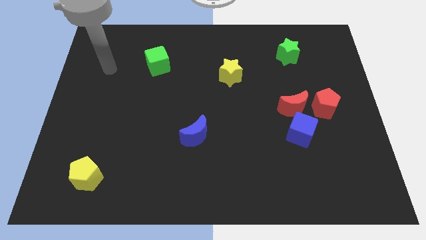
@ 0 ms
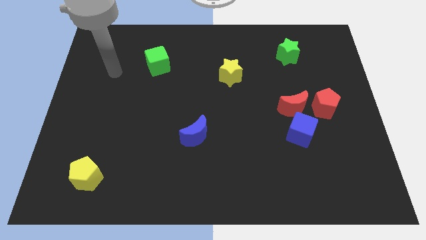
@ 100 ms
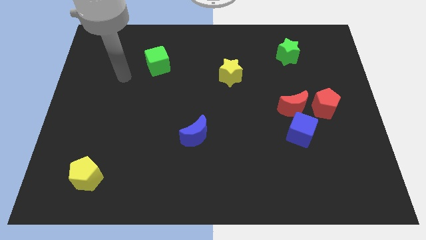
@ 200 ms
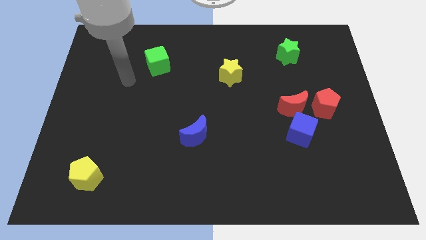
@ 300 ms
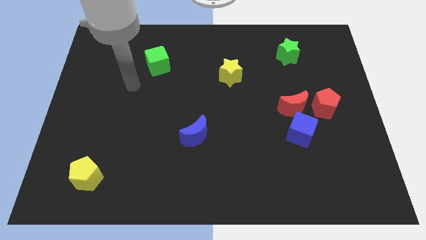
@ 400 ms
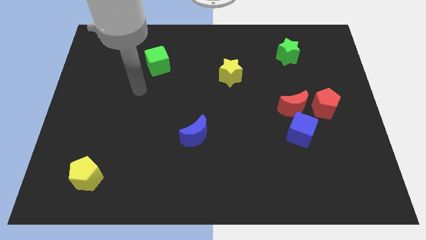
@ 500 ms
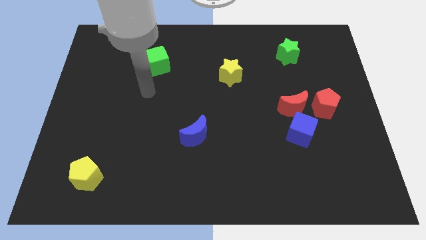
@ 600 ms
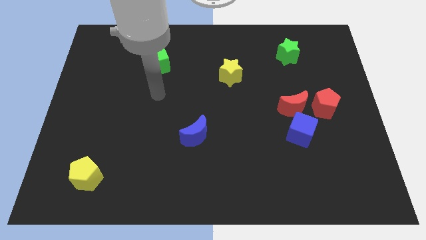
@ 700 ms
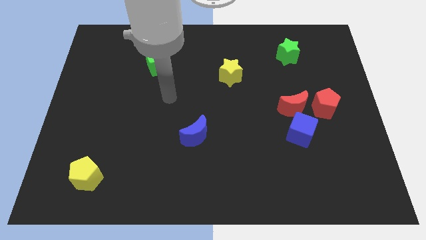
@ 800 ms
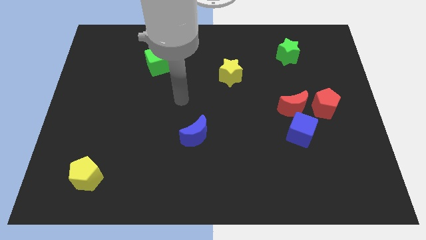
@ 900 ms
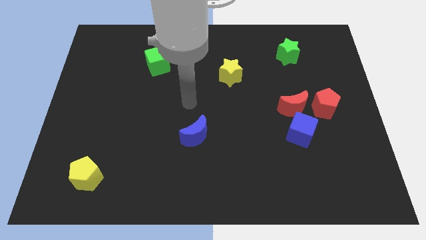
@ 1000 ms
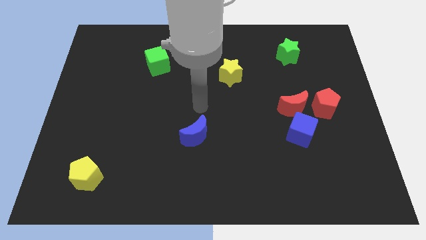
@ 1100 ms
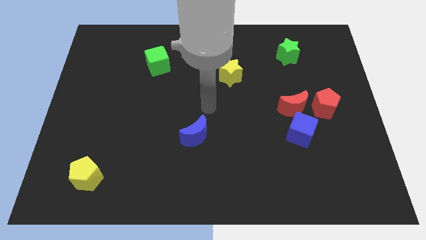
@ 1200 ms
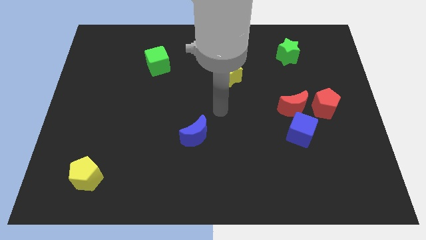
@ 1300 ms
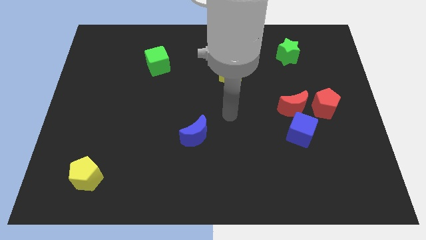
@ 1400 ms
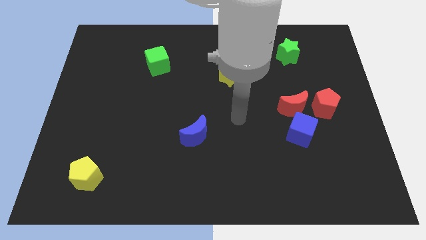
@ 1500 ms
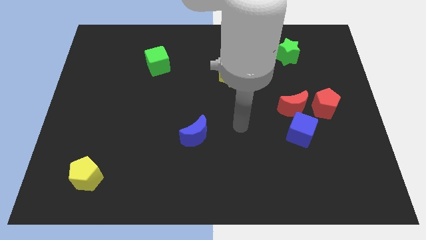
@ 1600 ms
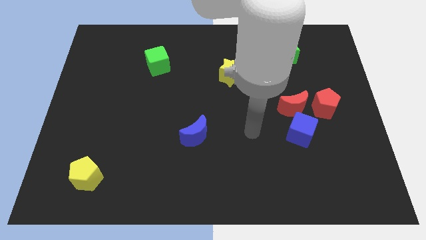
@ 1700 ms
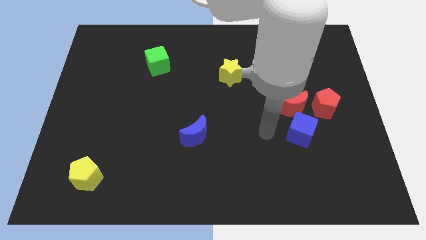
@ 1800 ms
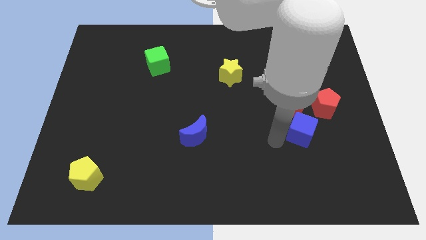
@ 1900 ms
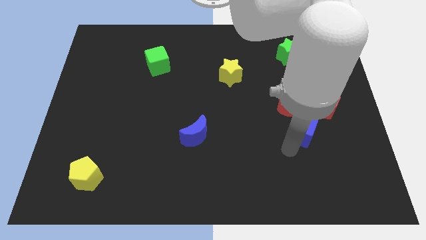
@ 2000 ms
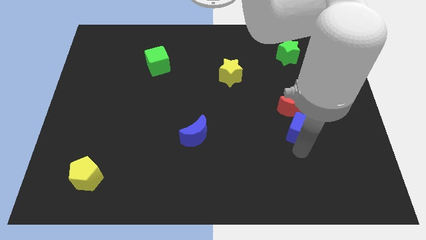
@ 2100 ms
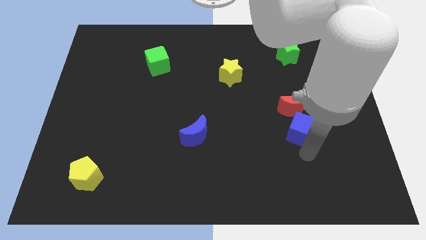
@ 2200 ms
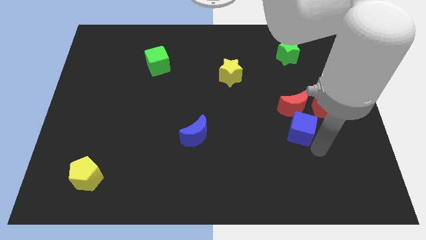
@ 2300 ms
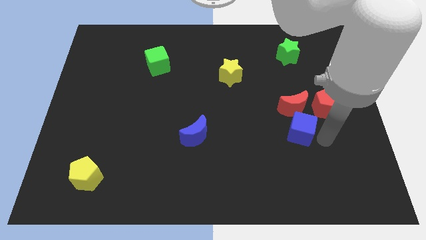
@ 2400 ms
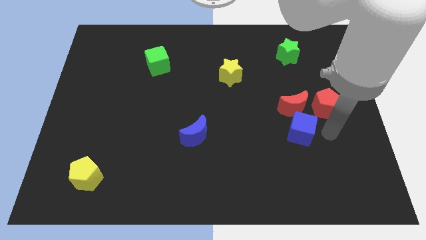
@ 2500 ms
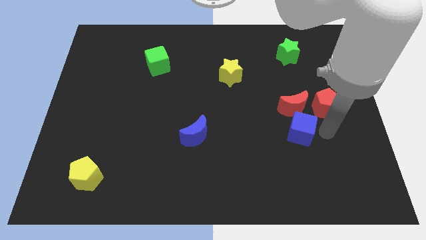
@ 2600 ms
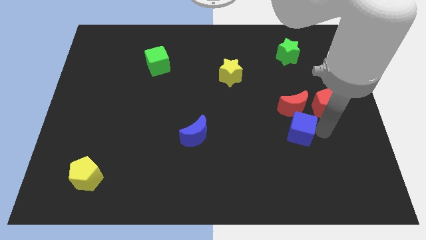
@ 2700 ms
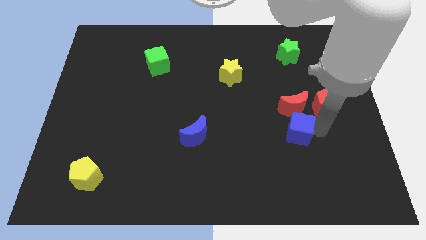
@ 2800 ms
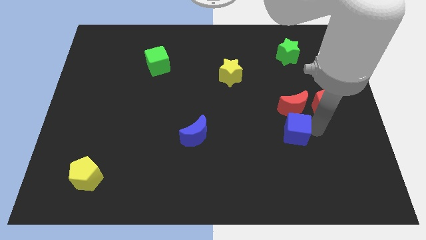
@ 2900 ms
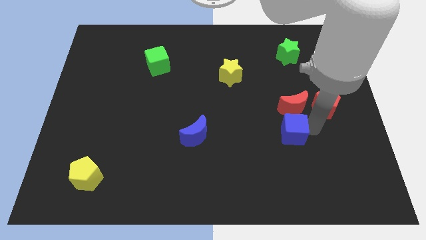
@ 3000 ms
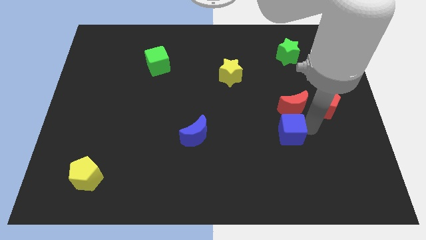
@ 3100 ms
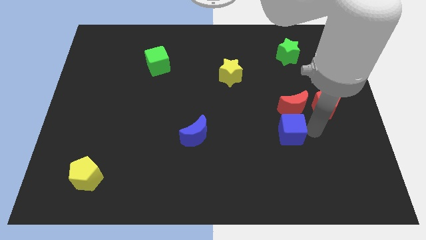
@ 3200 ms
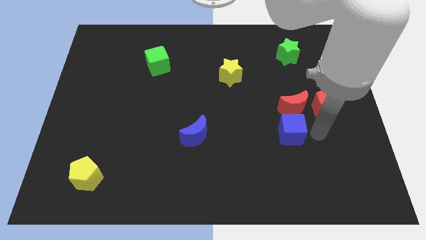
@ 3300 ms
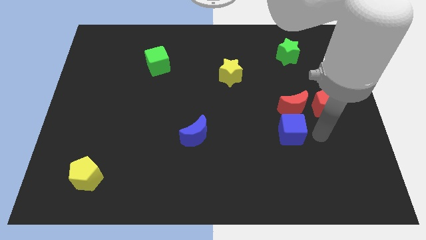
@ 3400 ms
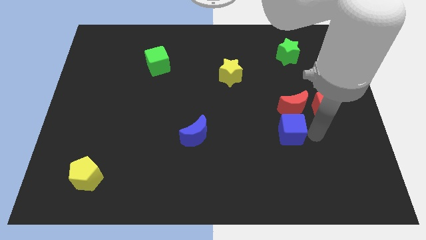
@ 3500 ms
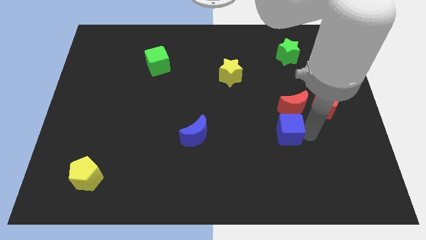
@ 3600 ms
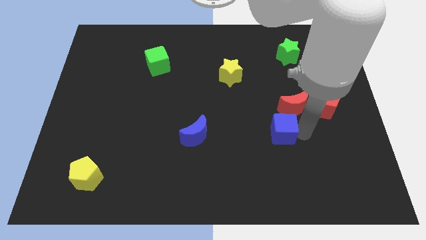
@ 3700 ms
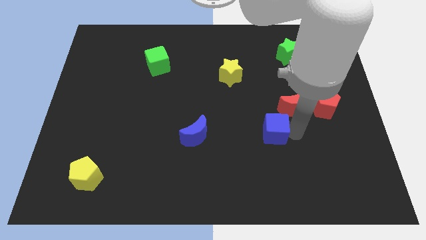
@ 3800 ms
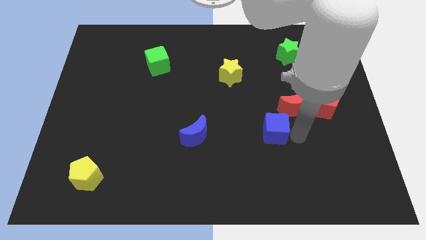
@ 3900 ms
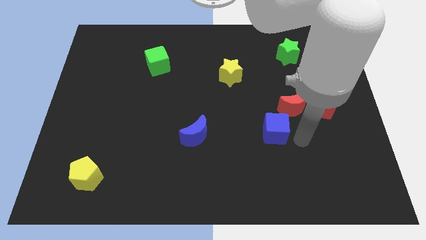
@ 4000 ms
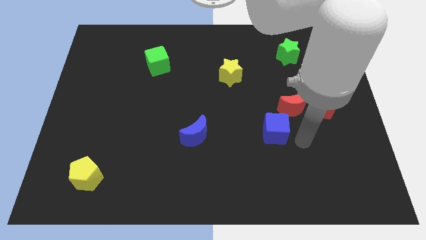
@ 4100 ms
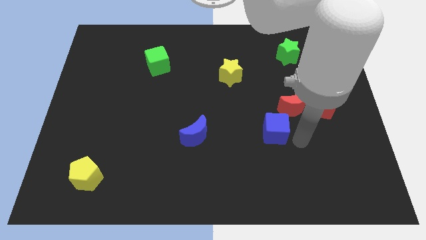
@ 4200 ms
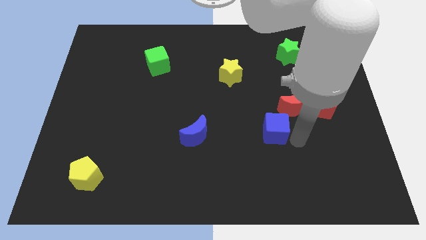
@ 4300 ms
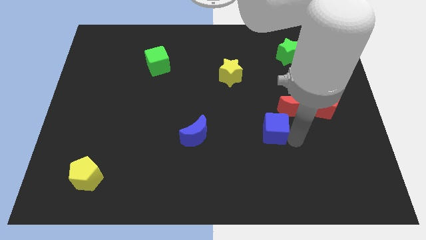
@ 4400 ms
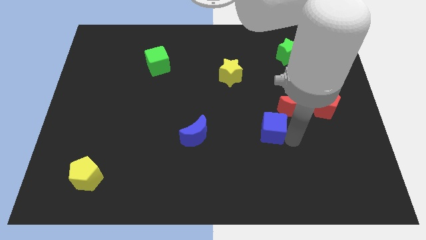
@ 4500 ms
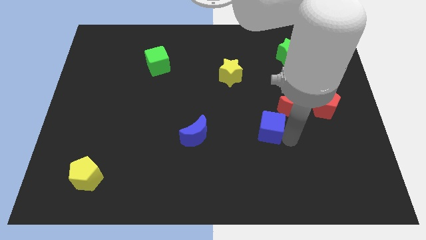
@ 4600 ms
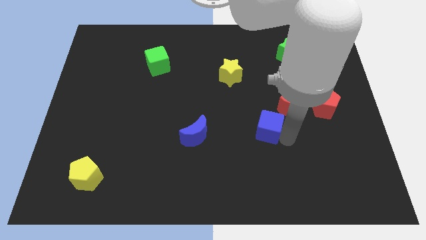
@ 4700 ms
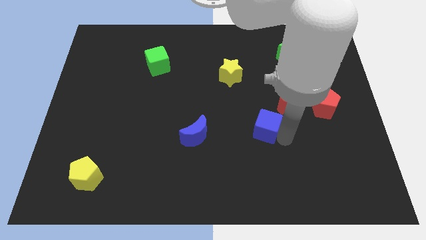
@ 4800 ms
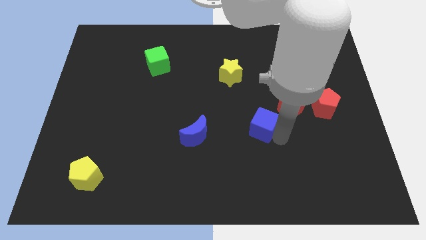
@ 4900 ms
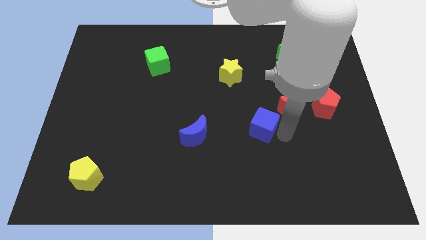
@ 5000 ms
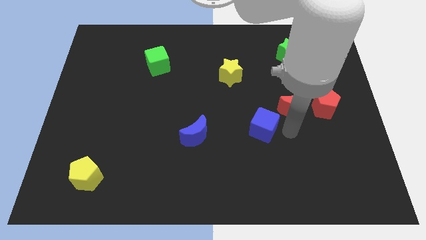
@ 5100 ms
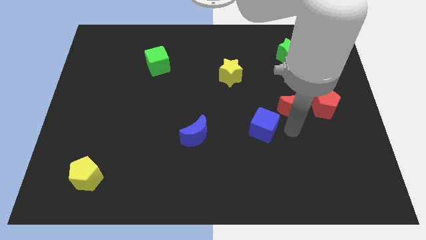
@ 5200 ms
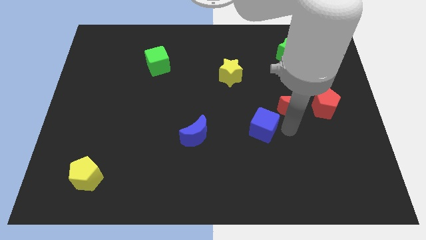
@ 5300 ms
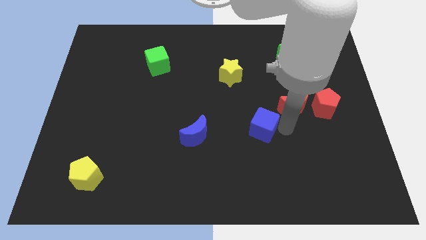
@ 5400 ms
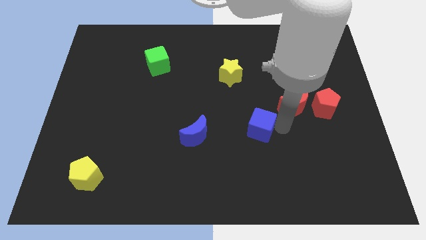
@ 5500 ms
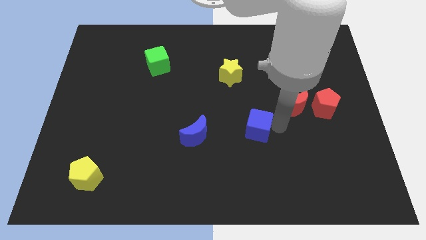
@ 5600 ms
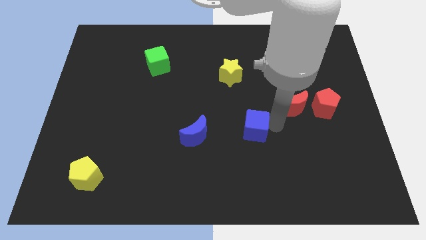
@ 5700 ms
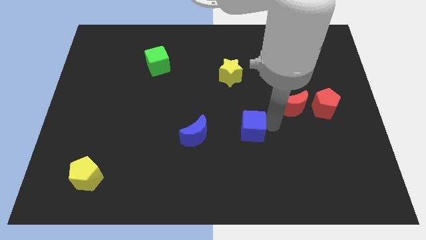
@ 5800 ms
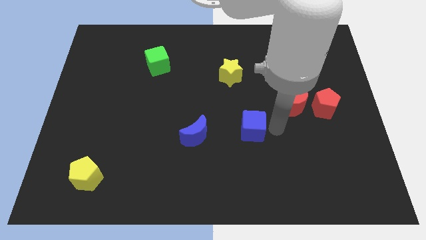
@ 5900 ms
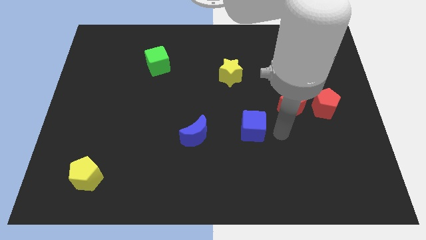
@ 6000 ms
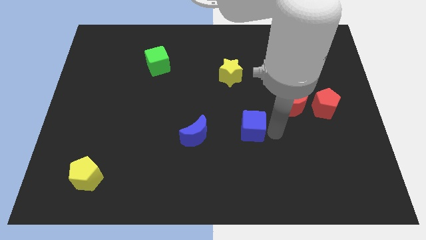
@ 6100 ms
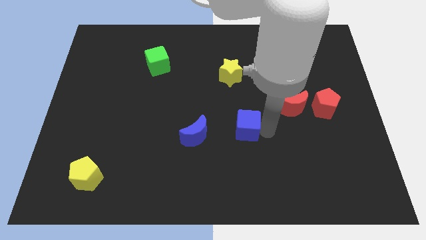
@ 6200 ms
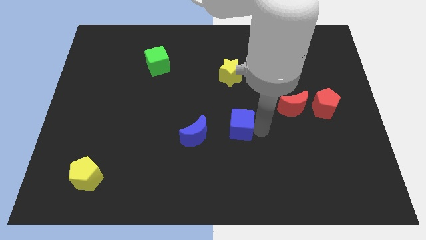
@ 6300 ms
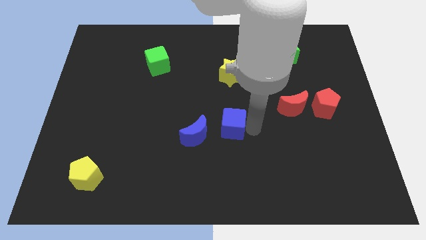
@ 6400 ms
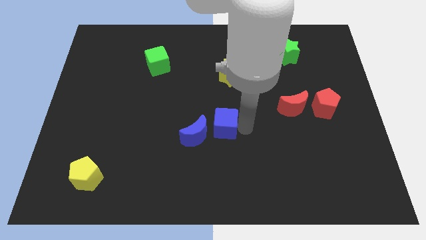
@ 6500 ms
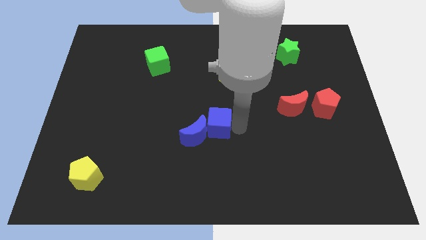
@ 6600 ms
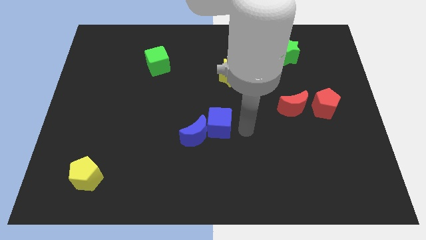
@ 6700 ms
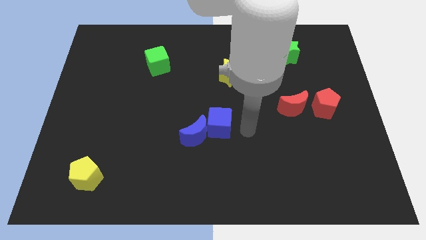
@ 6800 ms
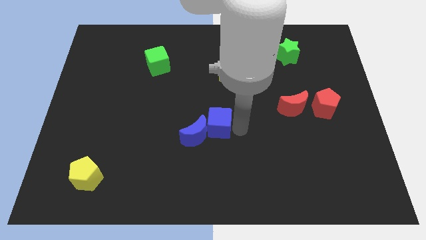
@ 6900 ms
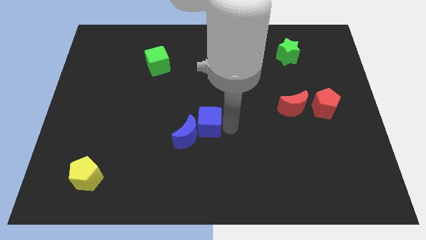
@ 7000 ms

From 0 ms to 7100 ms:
slide the blue cube left

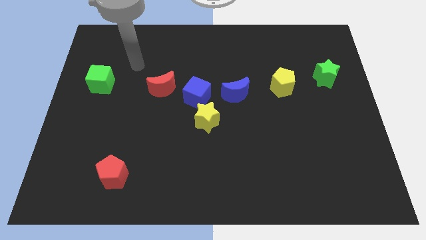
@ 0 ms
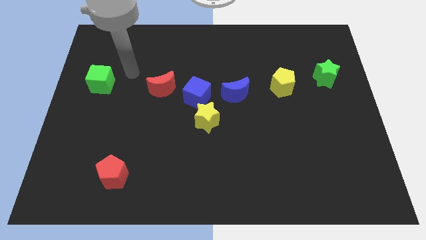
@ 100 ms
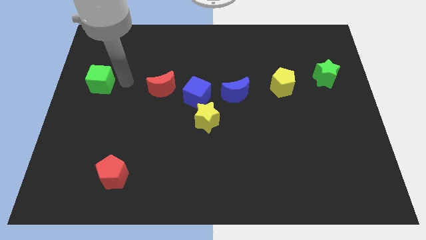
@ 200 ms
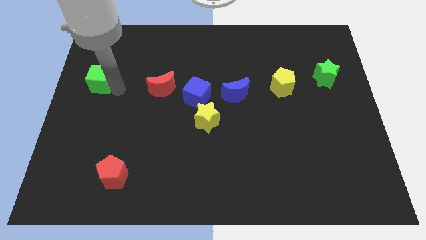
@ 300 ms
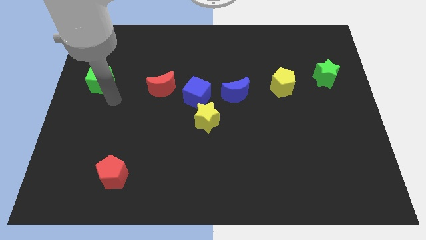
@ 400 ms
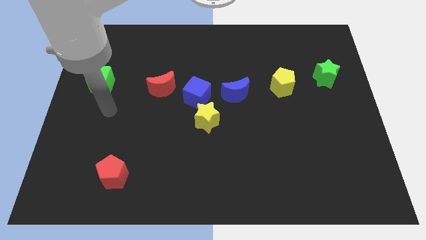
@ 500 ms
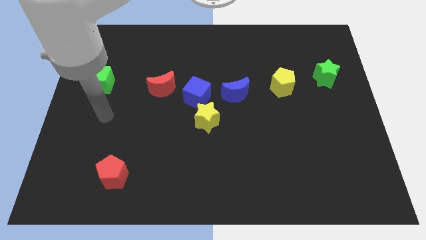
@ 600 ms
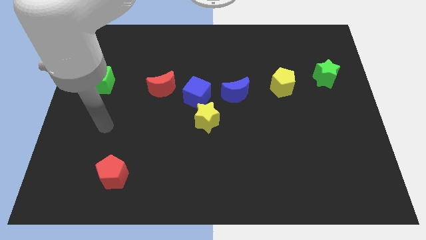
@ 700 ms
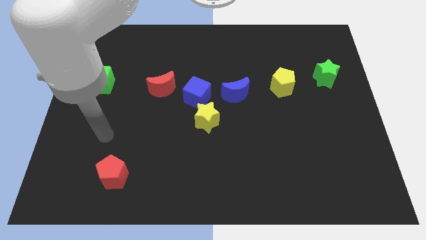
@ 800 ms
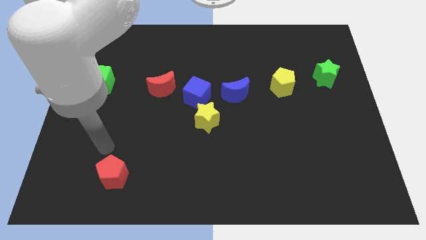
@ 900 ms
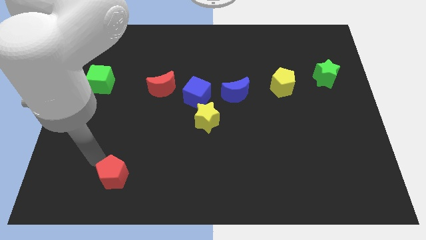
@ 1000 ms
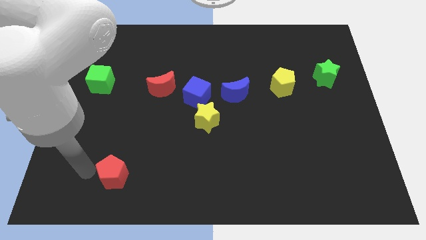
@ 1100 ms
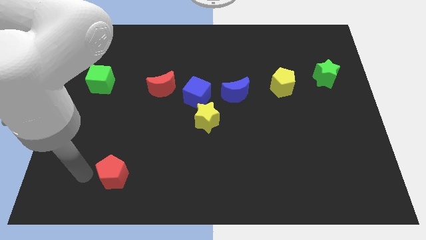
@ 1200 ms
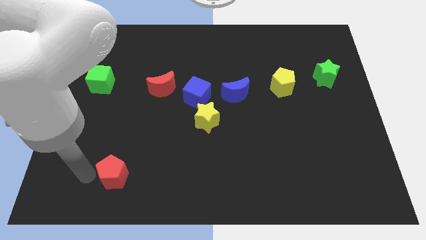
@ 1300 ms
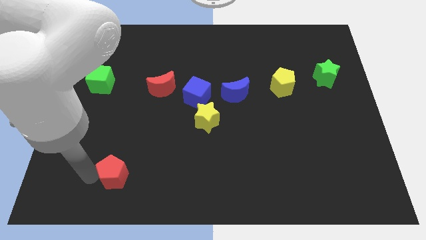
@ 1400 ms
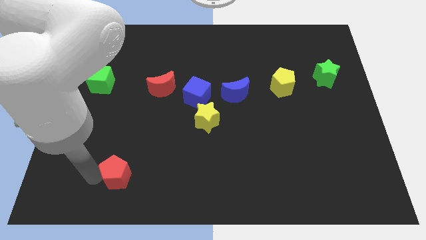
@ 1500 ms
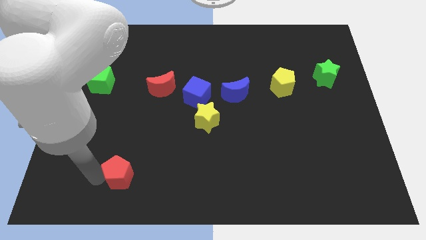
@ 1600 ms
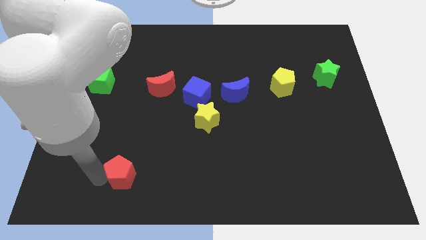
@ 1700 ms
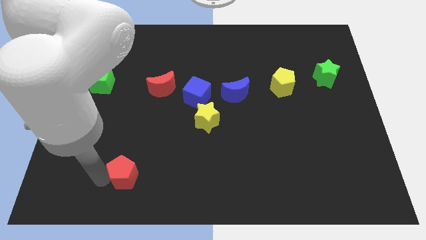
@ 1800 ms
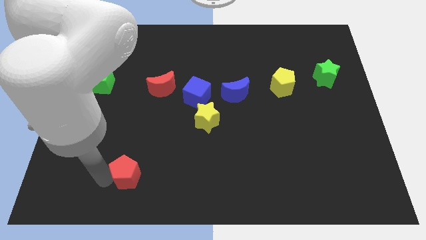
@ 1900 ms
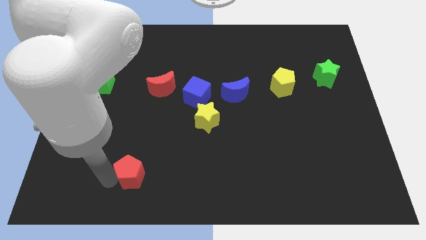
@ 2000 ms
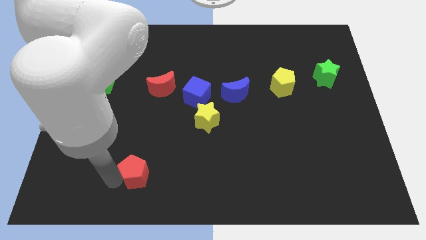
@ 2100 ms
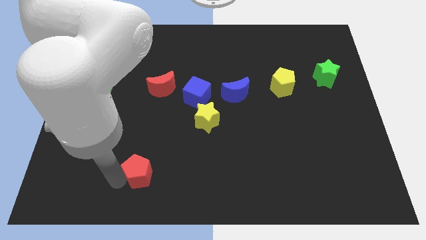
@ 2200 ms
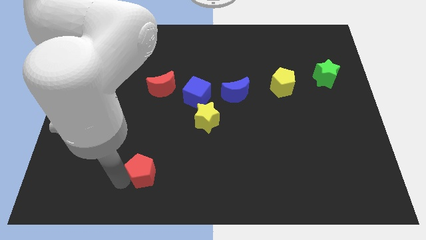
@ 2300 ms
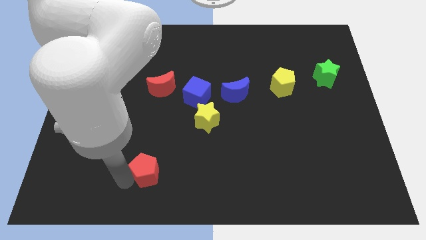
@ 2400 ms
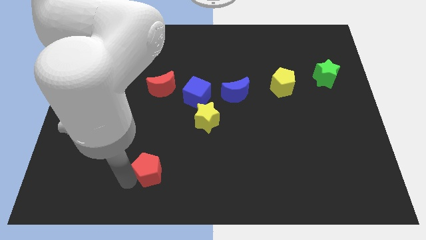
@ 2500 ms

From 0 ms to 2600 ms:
slightly push the red pentagon right
